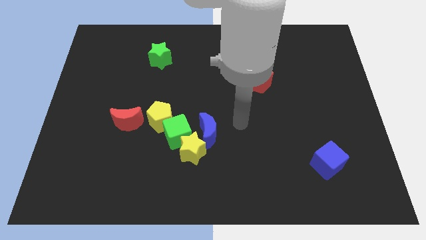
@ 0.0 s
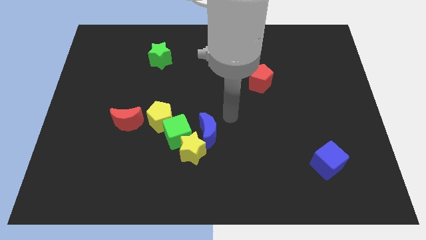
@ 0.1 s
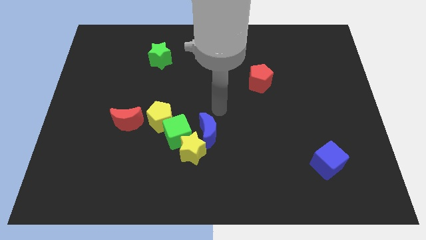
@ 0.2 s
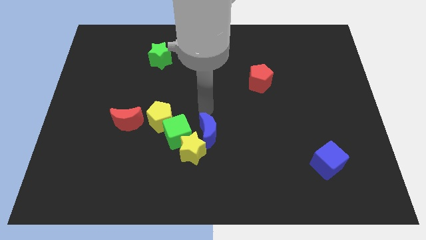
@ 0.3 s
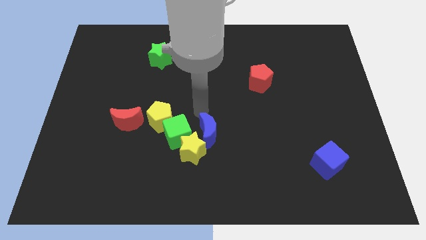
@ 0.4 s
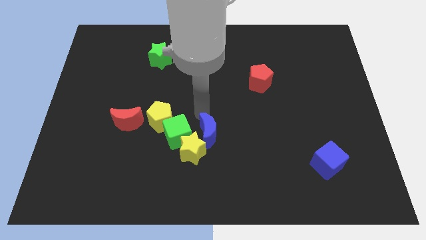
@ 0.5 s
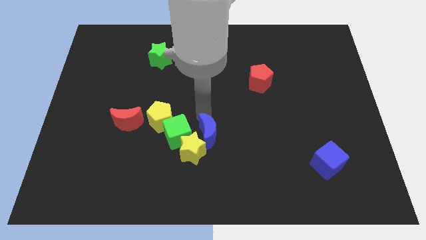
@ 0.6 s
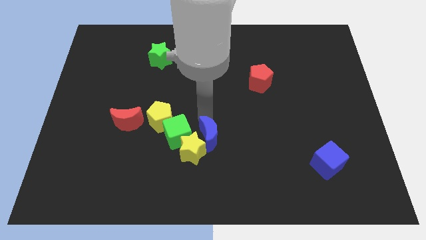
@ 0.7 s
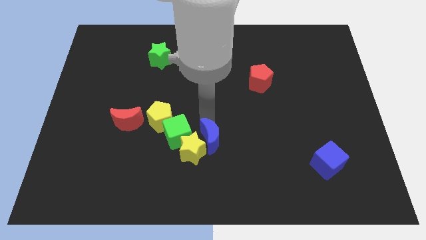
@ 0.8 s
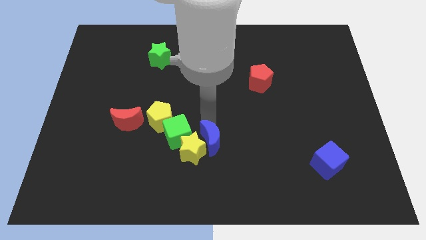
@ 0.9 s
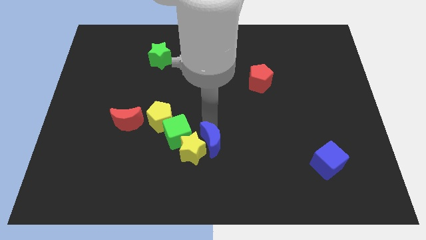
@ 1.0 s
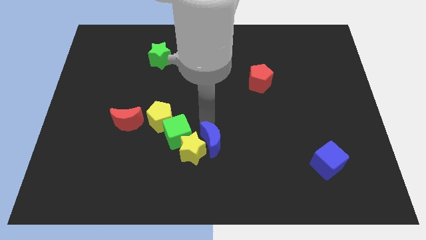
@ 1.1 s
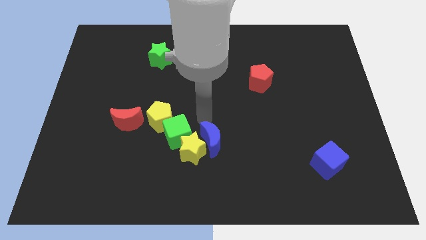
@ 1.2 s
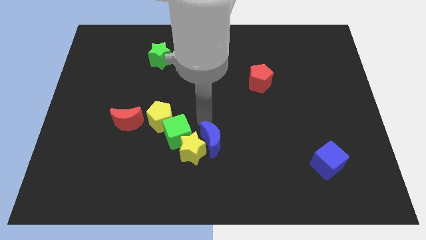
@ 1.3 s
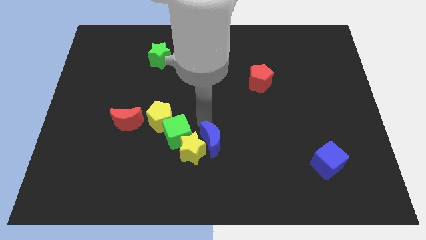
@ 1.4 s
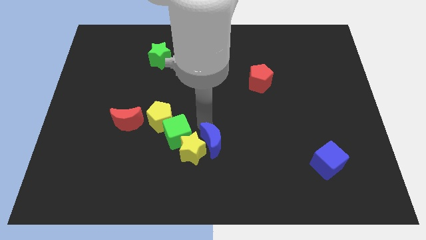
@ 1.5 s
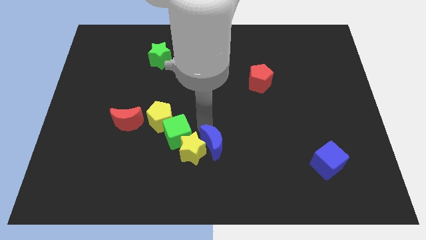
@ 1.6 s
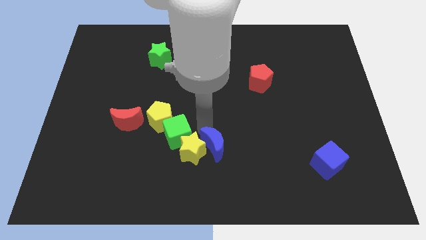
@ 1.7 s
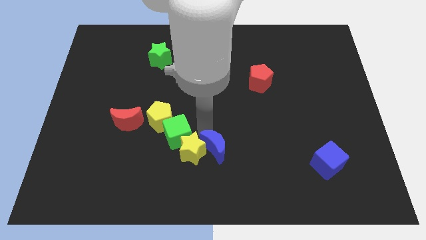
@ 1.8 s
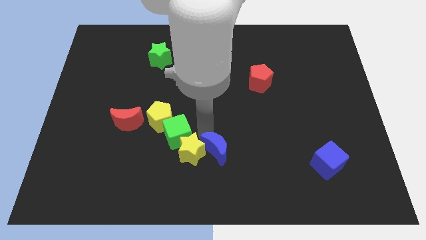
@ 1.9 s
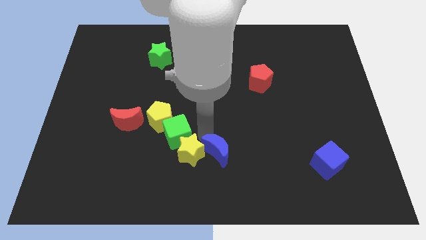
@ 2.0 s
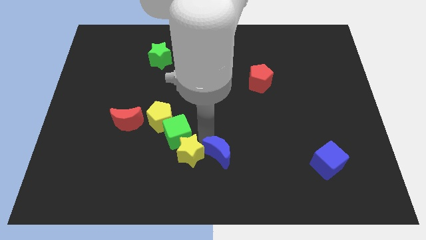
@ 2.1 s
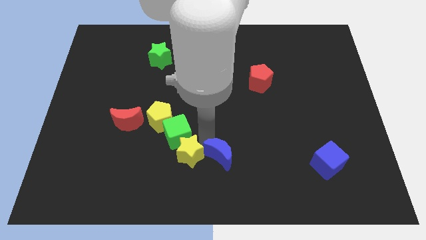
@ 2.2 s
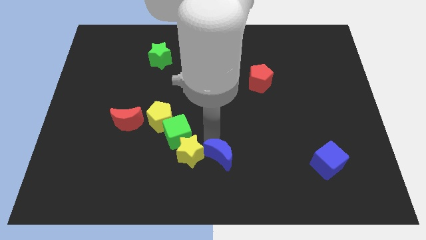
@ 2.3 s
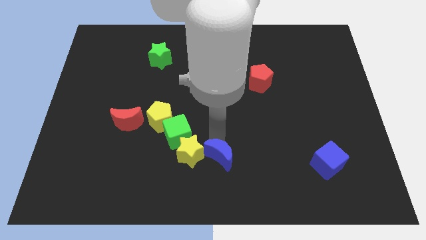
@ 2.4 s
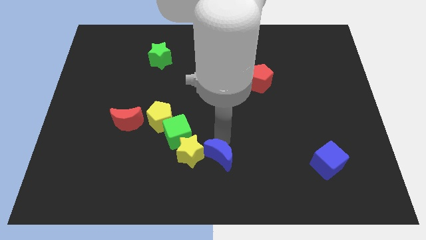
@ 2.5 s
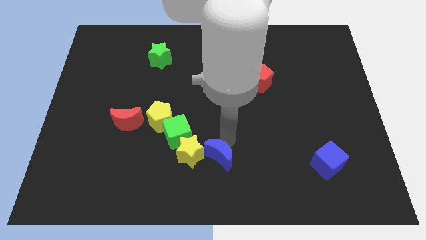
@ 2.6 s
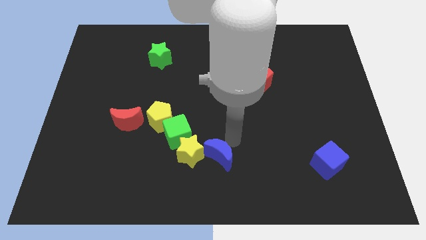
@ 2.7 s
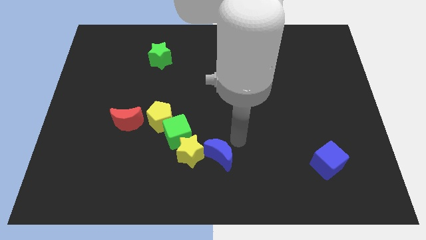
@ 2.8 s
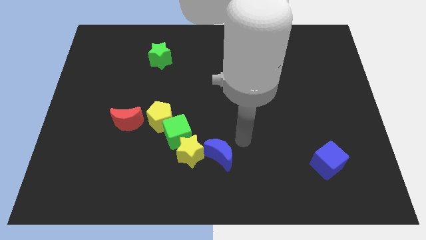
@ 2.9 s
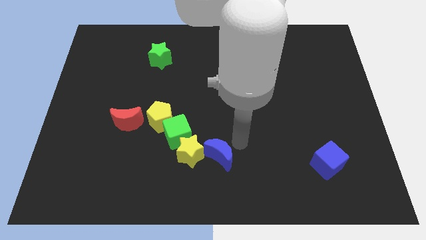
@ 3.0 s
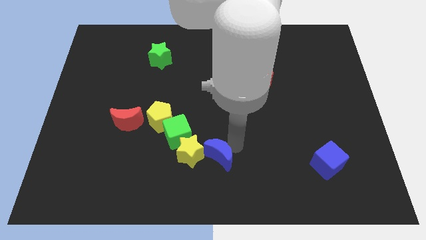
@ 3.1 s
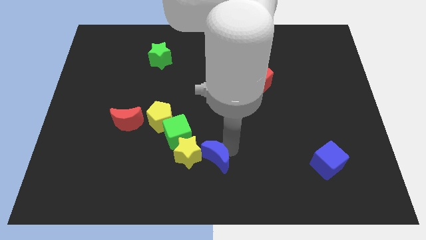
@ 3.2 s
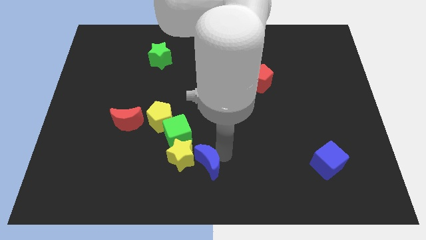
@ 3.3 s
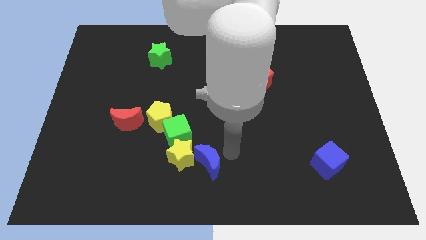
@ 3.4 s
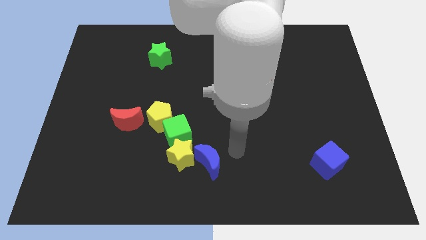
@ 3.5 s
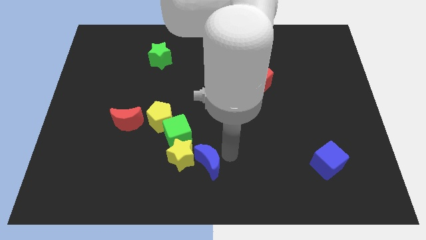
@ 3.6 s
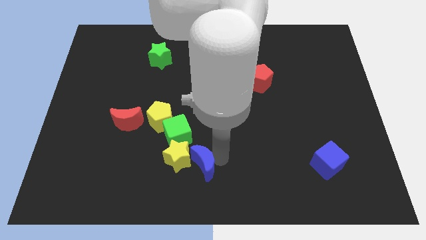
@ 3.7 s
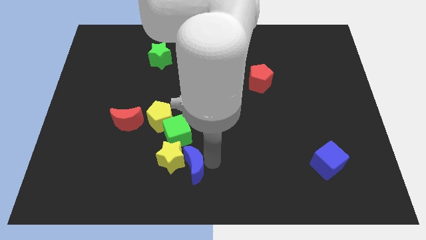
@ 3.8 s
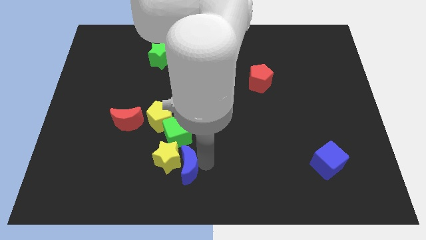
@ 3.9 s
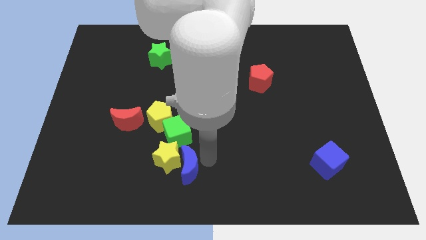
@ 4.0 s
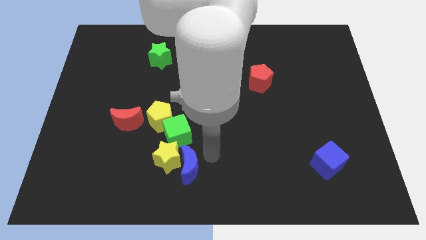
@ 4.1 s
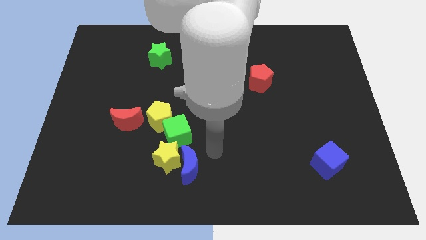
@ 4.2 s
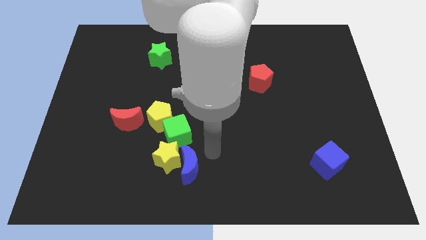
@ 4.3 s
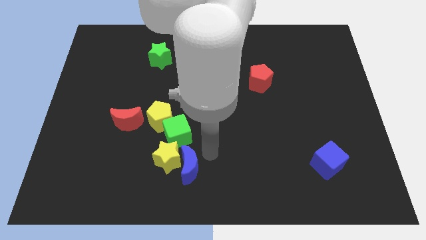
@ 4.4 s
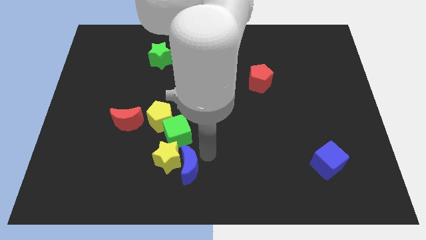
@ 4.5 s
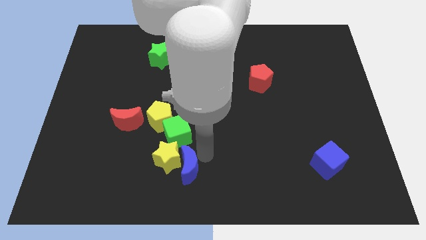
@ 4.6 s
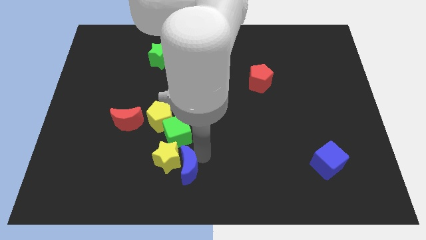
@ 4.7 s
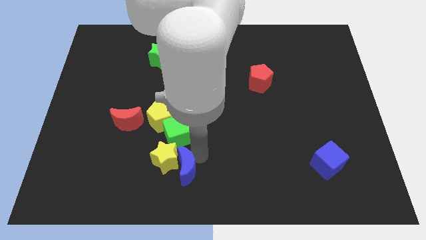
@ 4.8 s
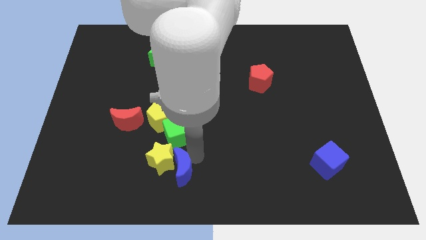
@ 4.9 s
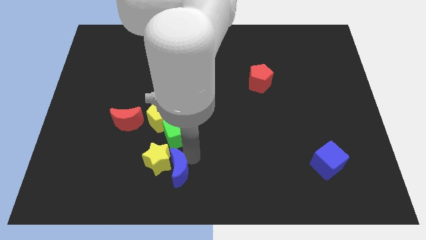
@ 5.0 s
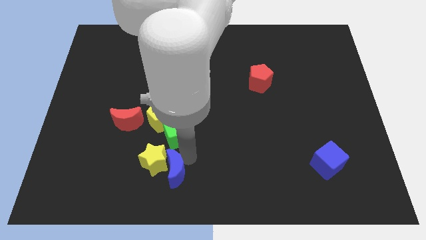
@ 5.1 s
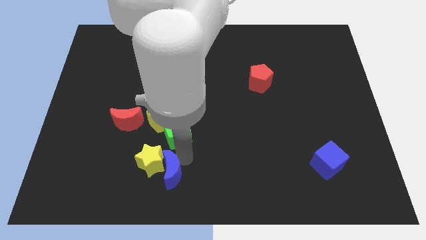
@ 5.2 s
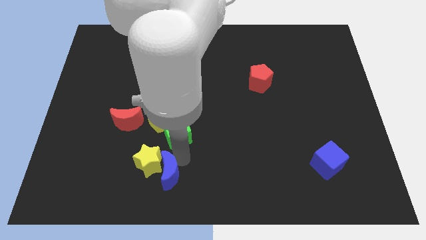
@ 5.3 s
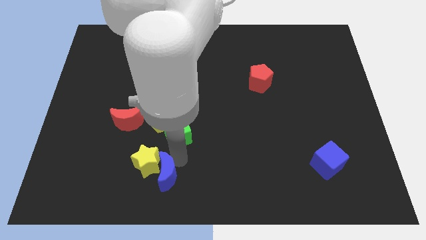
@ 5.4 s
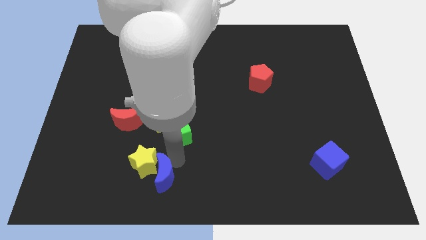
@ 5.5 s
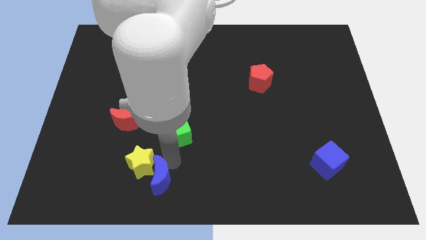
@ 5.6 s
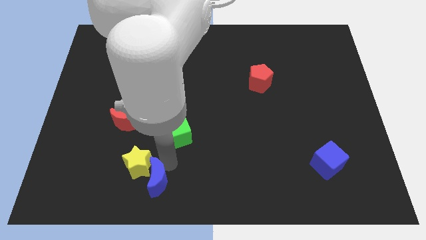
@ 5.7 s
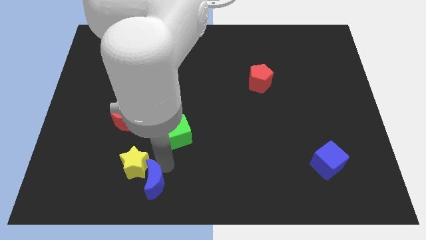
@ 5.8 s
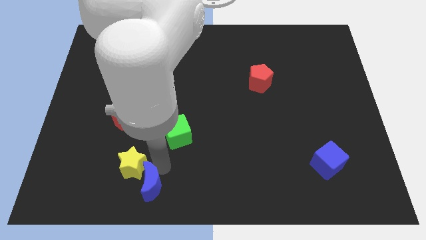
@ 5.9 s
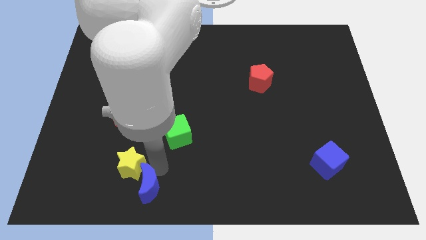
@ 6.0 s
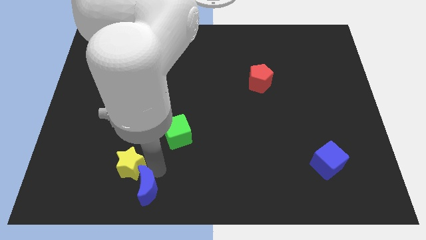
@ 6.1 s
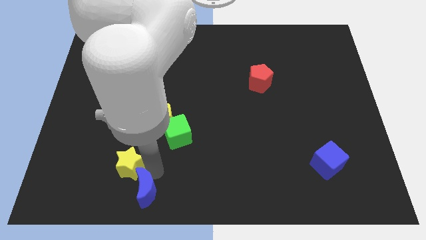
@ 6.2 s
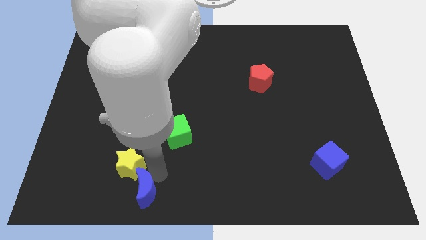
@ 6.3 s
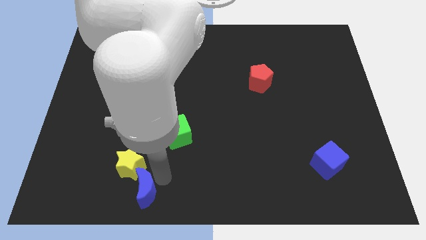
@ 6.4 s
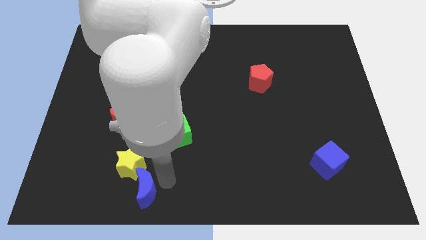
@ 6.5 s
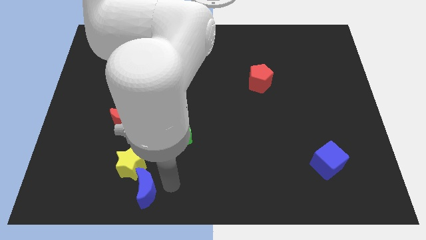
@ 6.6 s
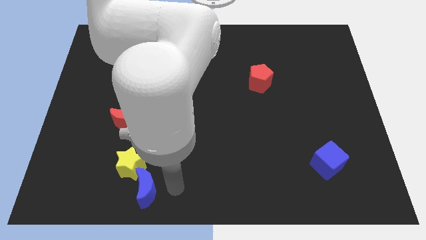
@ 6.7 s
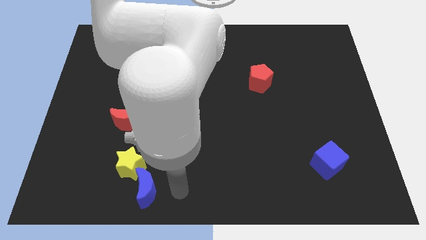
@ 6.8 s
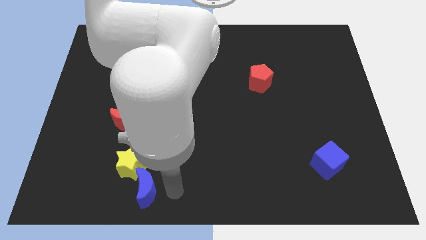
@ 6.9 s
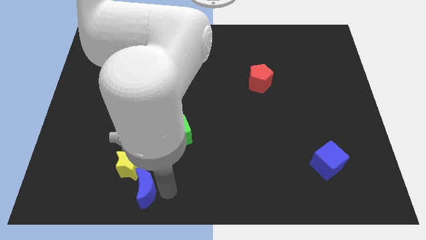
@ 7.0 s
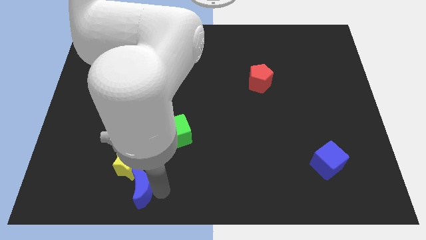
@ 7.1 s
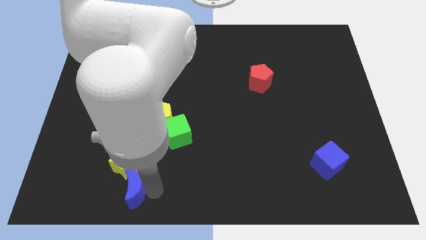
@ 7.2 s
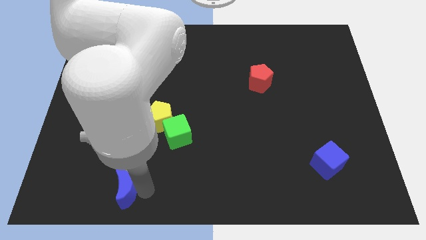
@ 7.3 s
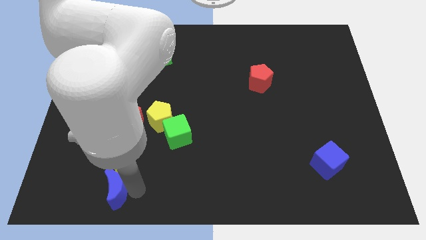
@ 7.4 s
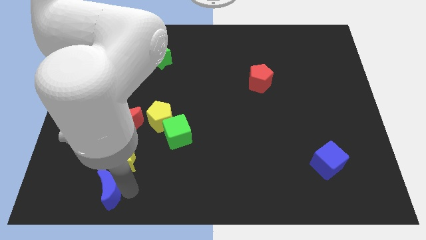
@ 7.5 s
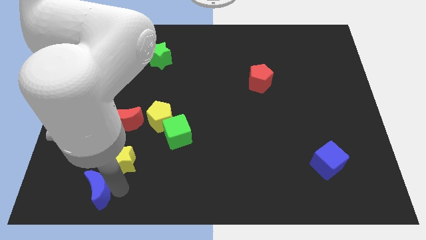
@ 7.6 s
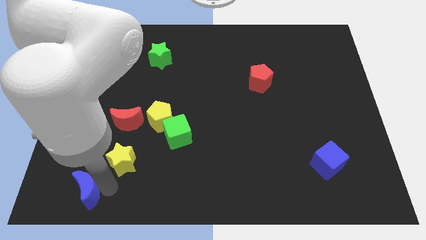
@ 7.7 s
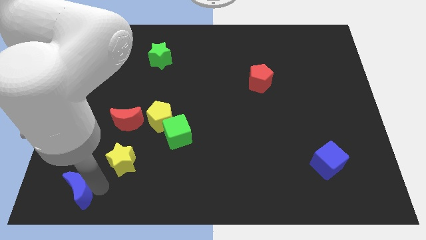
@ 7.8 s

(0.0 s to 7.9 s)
put the blue moon to the lower left corner
